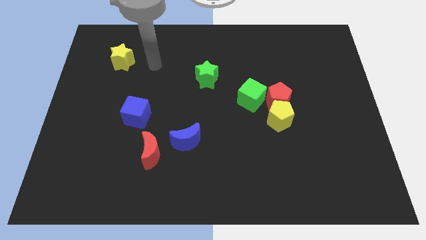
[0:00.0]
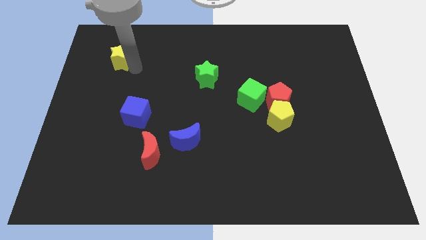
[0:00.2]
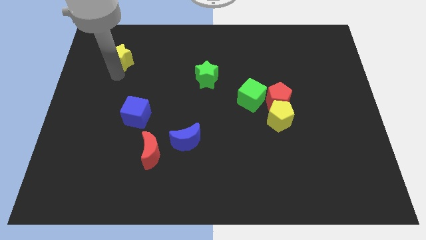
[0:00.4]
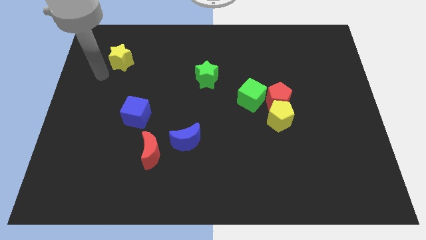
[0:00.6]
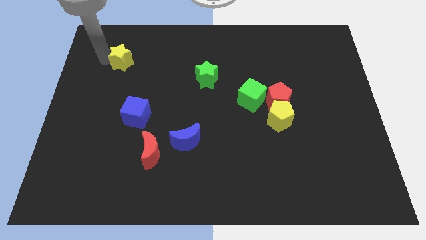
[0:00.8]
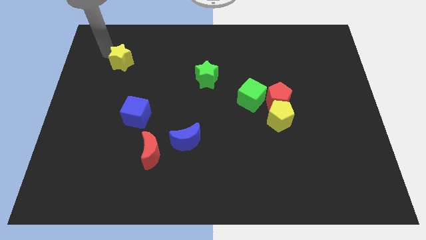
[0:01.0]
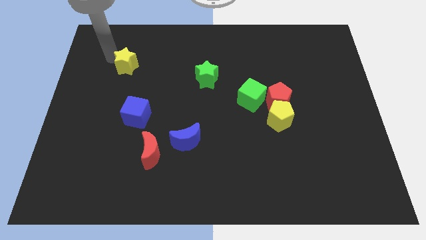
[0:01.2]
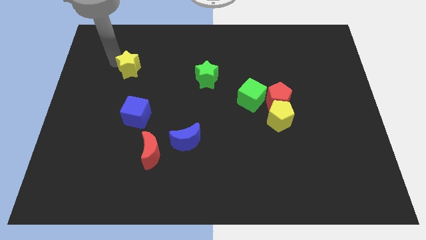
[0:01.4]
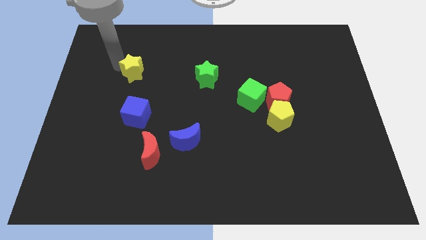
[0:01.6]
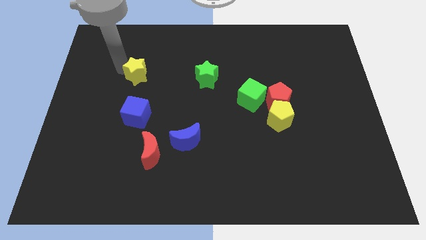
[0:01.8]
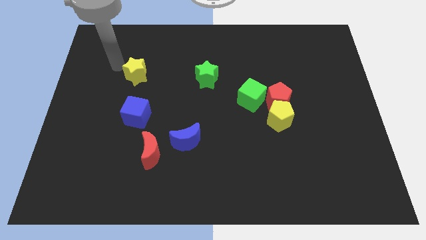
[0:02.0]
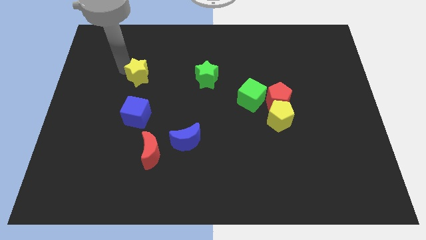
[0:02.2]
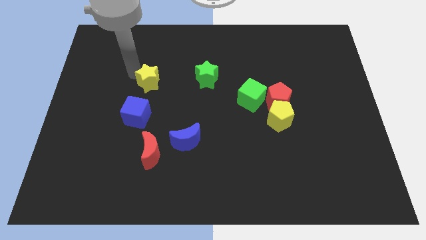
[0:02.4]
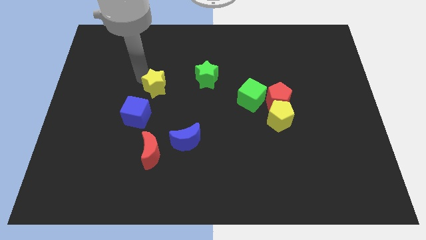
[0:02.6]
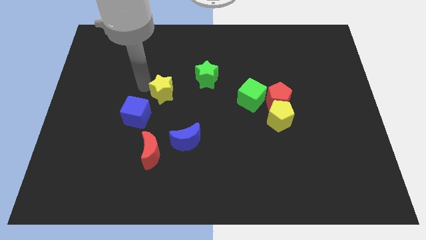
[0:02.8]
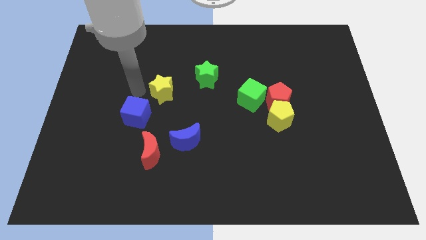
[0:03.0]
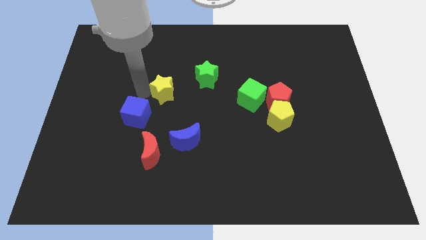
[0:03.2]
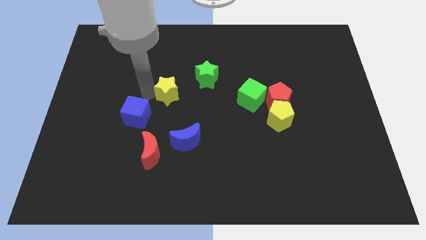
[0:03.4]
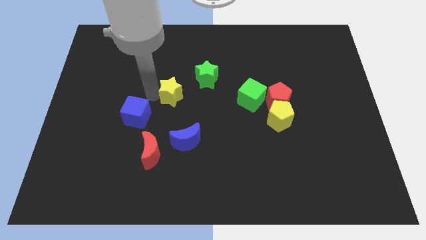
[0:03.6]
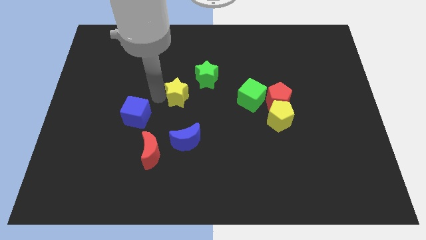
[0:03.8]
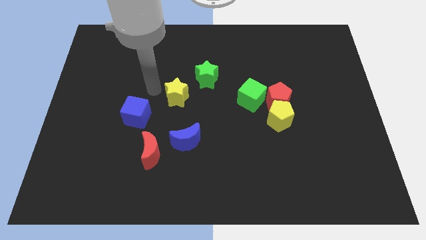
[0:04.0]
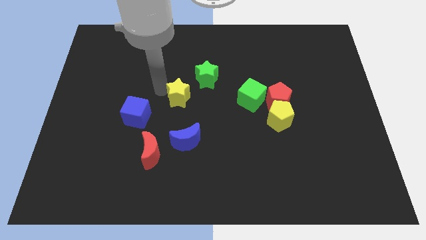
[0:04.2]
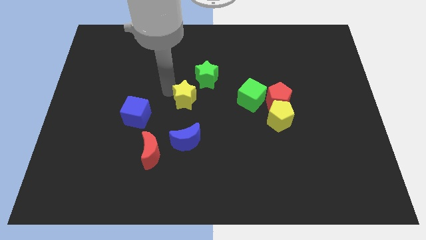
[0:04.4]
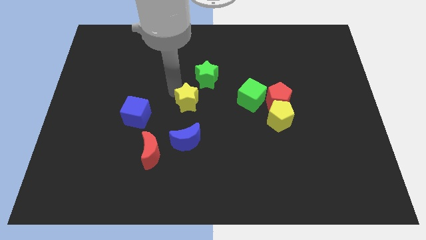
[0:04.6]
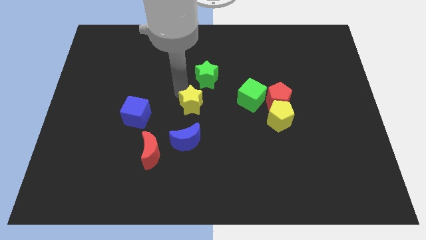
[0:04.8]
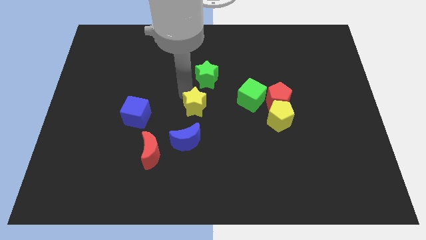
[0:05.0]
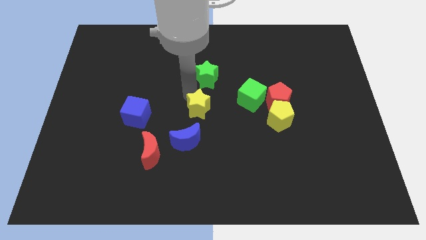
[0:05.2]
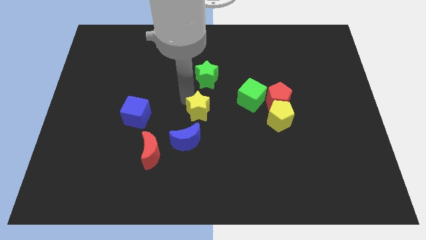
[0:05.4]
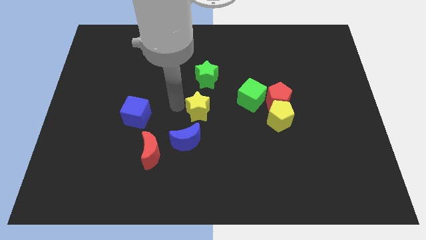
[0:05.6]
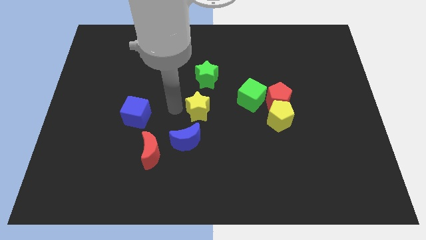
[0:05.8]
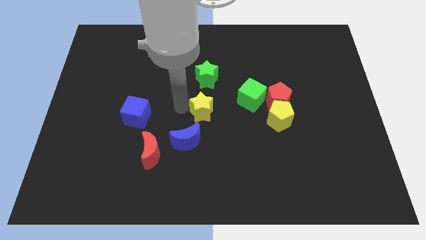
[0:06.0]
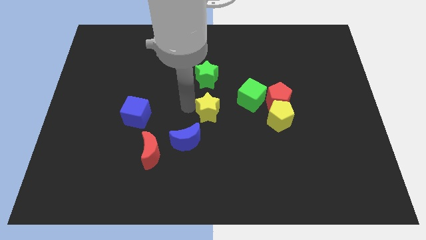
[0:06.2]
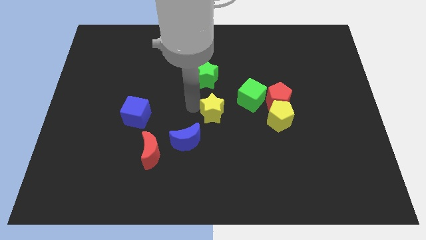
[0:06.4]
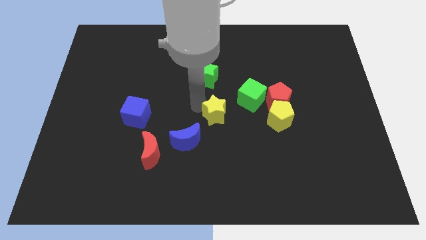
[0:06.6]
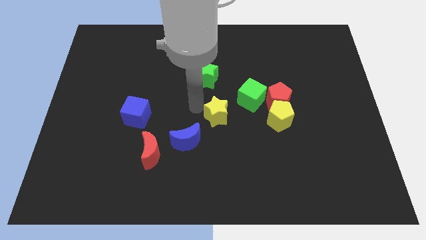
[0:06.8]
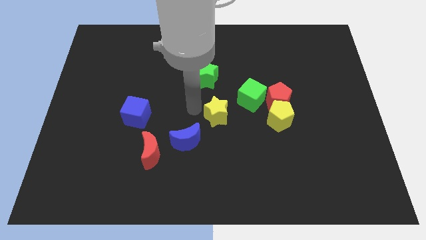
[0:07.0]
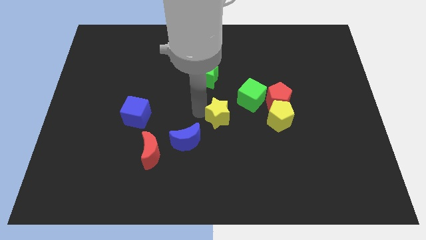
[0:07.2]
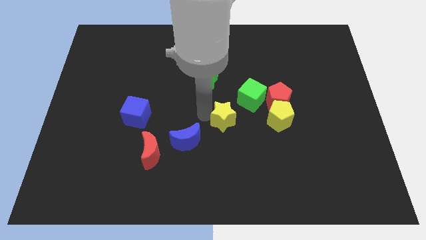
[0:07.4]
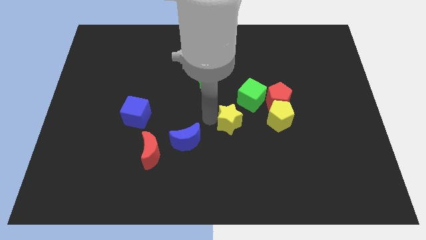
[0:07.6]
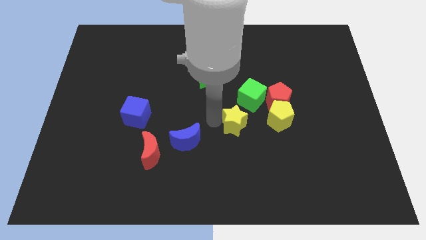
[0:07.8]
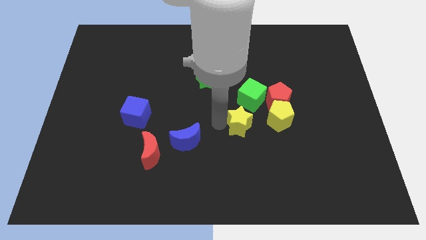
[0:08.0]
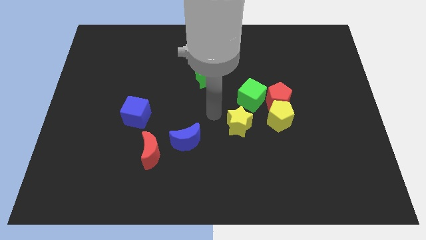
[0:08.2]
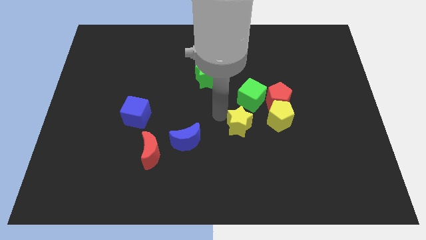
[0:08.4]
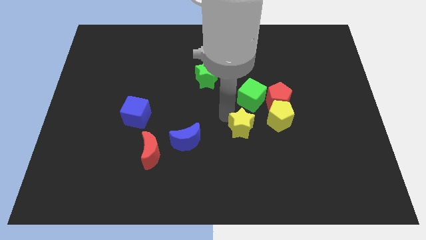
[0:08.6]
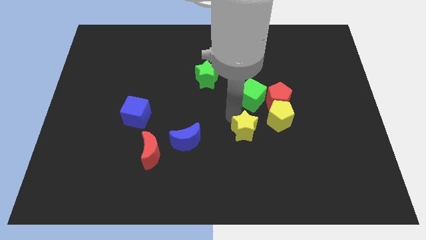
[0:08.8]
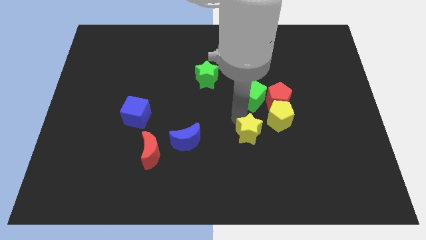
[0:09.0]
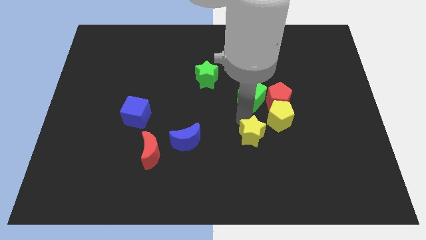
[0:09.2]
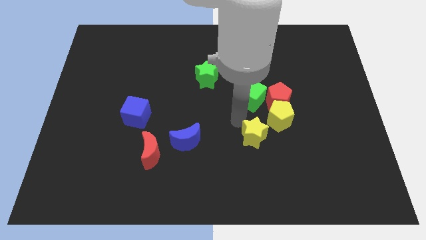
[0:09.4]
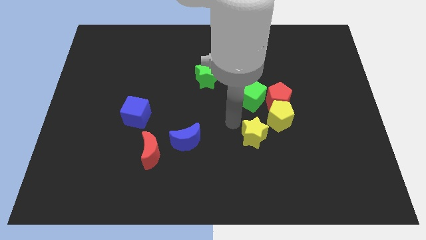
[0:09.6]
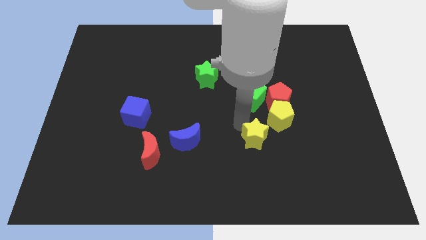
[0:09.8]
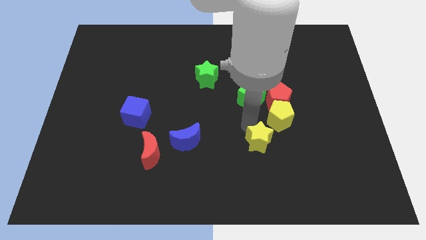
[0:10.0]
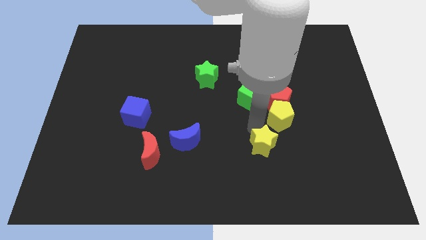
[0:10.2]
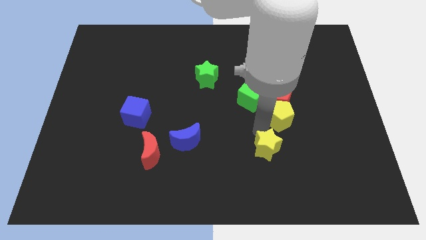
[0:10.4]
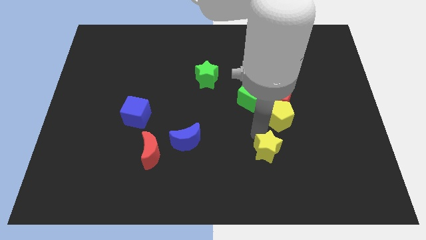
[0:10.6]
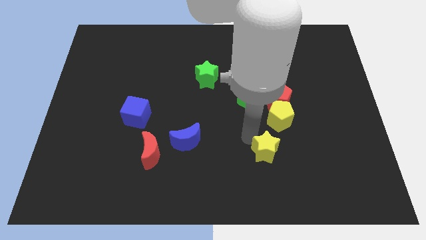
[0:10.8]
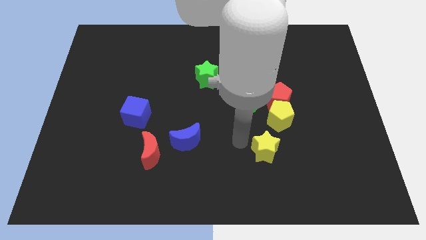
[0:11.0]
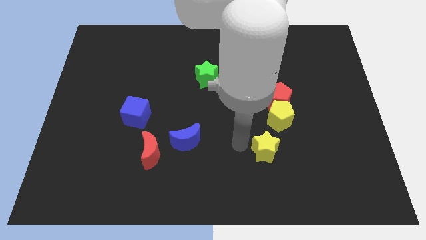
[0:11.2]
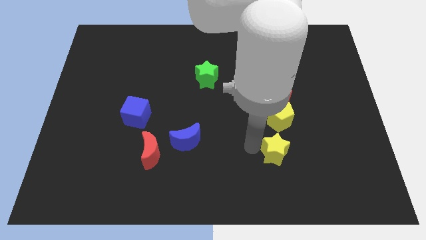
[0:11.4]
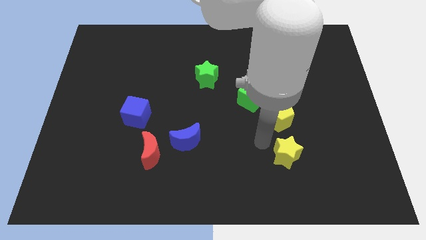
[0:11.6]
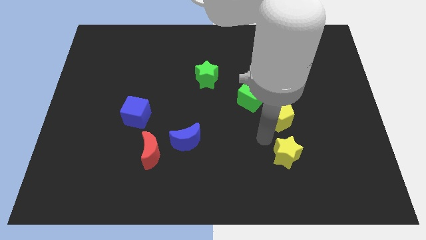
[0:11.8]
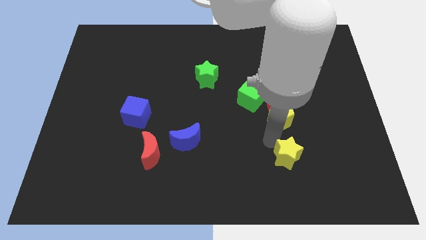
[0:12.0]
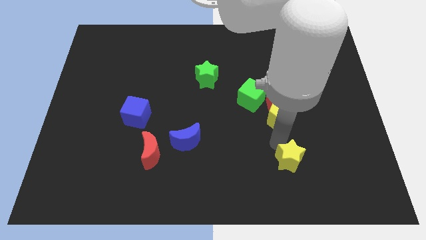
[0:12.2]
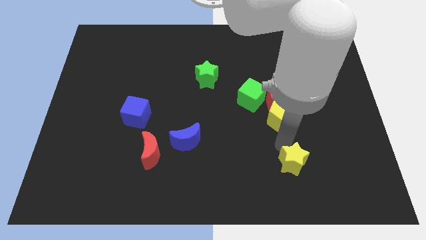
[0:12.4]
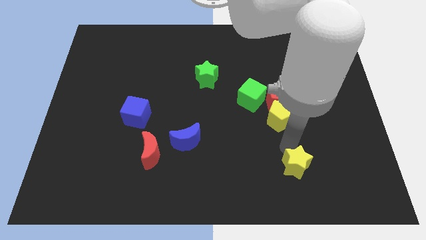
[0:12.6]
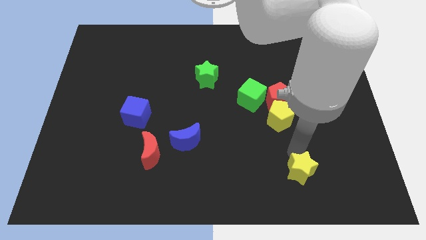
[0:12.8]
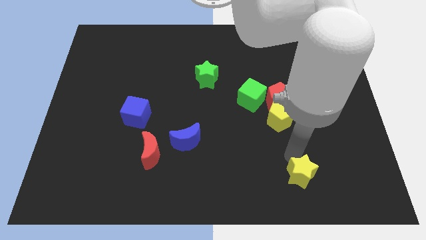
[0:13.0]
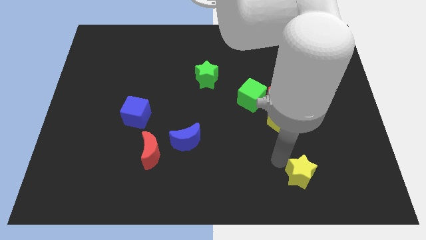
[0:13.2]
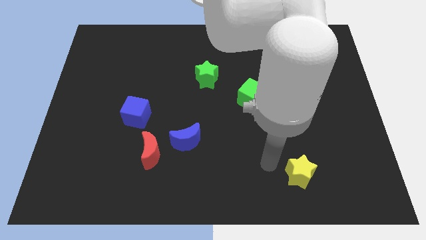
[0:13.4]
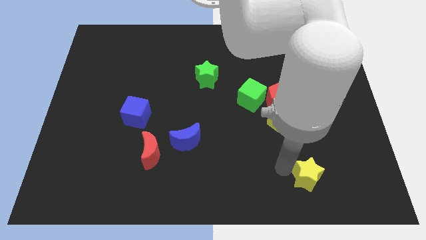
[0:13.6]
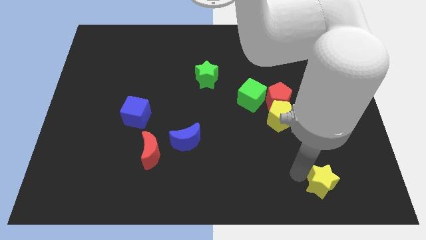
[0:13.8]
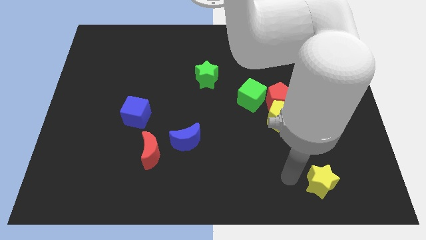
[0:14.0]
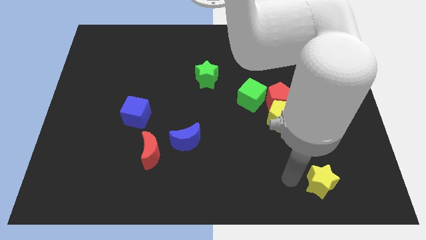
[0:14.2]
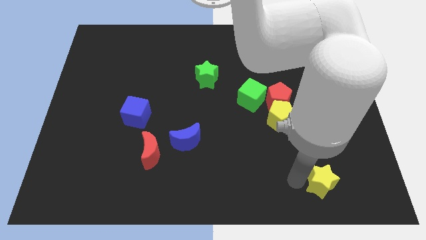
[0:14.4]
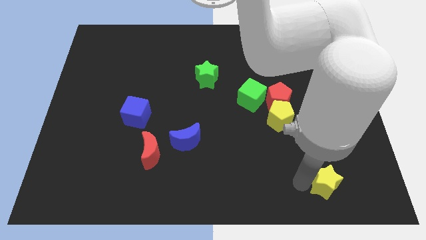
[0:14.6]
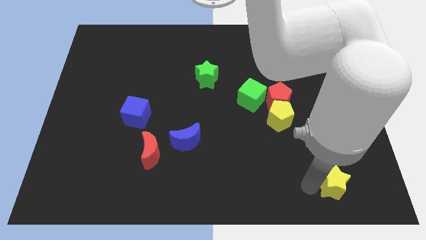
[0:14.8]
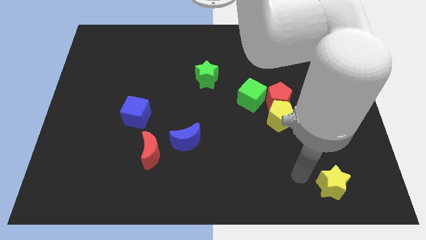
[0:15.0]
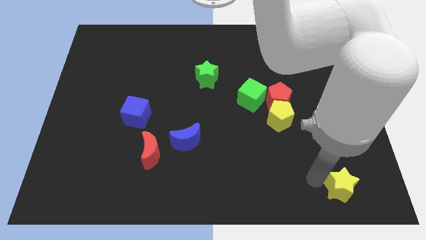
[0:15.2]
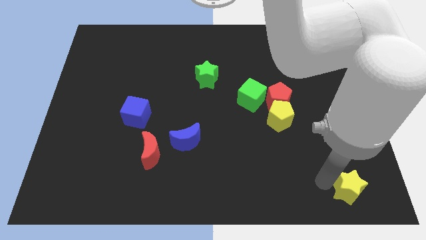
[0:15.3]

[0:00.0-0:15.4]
slide the yellow star to the bottom right
